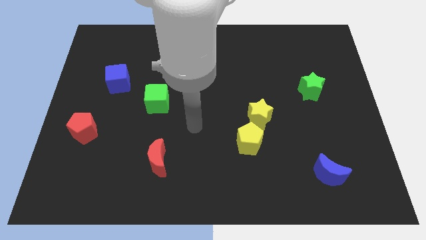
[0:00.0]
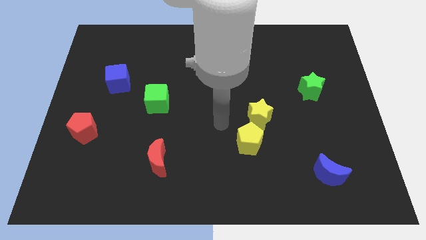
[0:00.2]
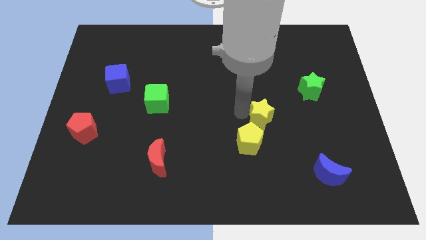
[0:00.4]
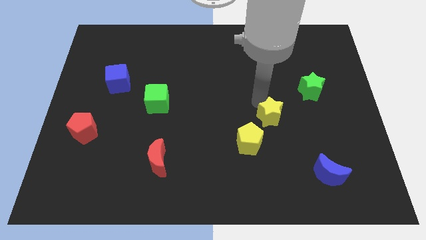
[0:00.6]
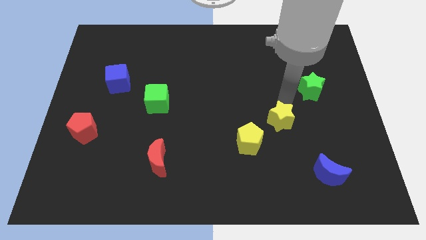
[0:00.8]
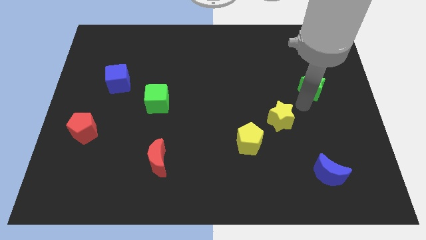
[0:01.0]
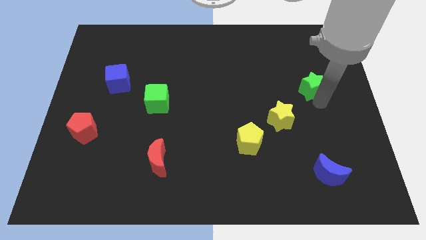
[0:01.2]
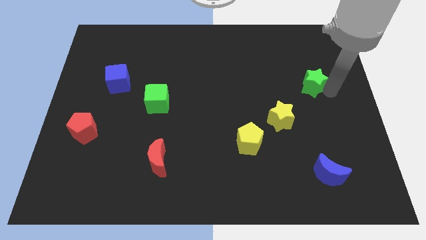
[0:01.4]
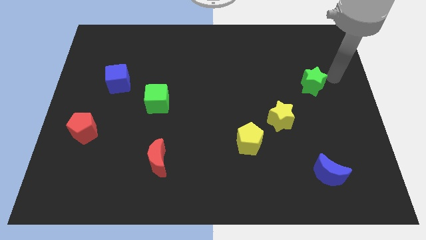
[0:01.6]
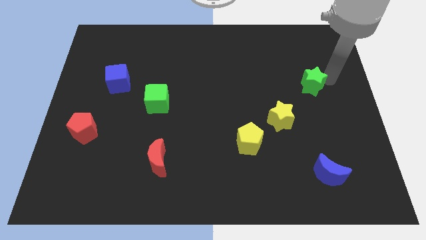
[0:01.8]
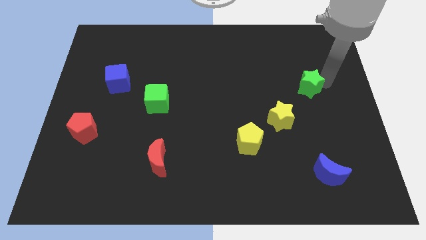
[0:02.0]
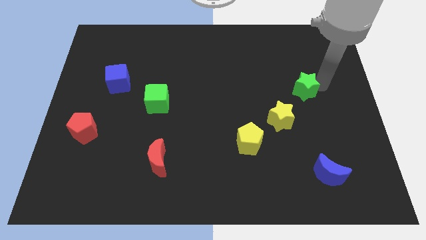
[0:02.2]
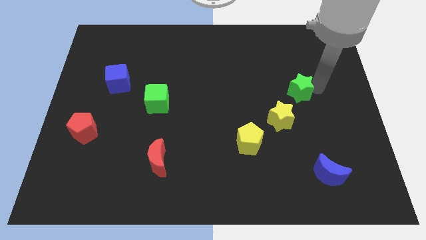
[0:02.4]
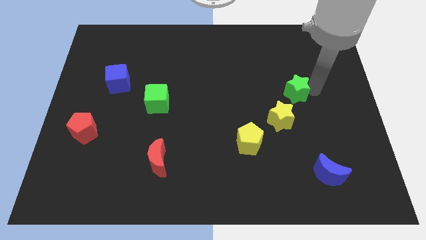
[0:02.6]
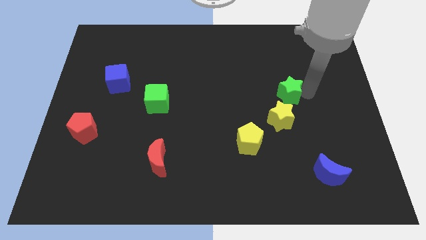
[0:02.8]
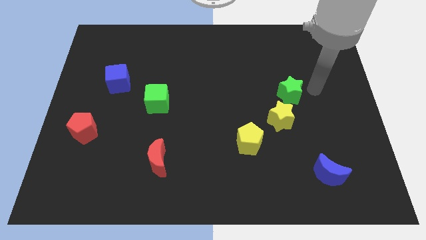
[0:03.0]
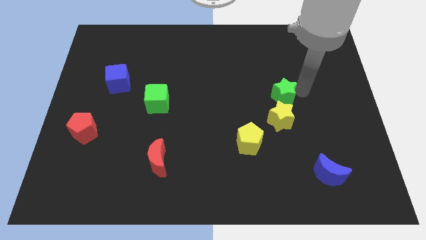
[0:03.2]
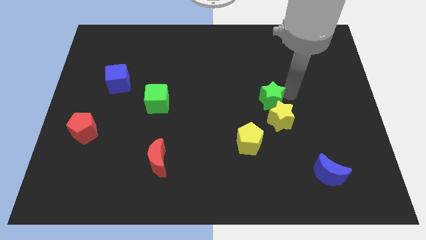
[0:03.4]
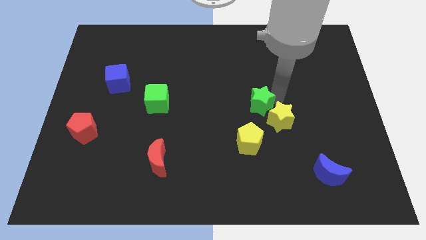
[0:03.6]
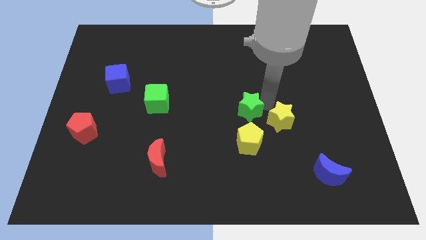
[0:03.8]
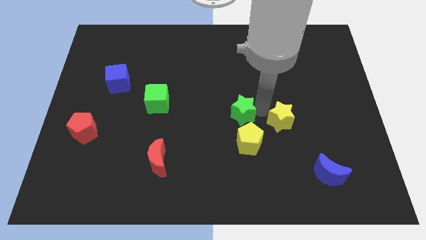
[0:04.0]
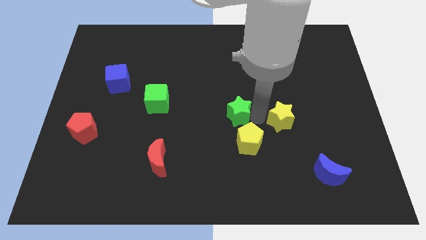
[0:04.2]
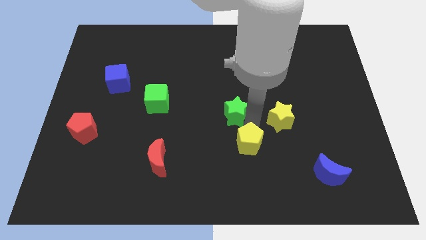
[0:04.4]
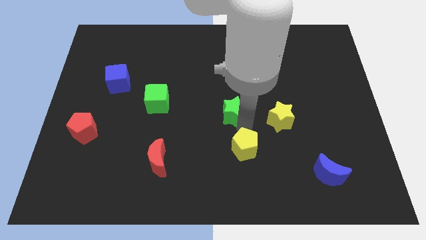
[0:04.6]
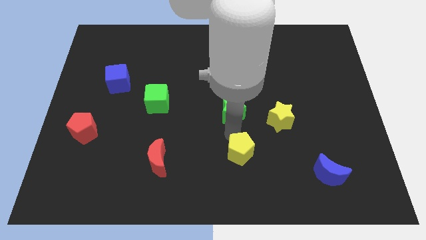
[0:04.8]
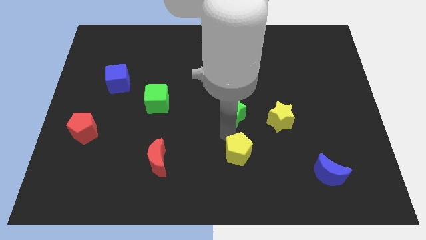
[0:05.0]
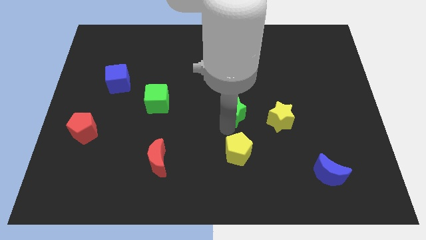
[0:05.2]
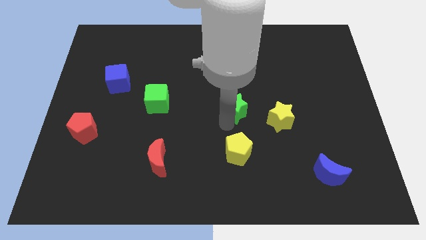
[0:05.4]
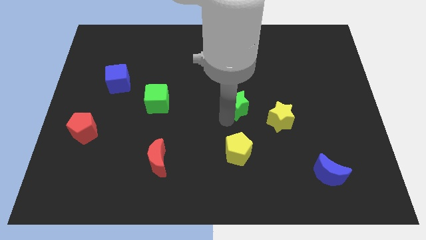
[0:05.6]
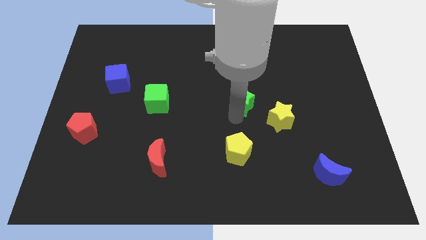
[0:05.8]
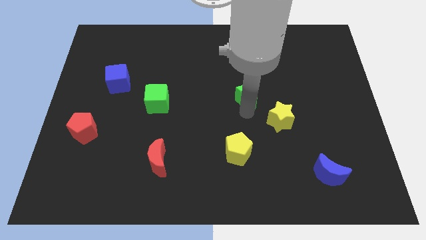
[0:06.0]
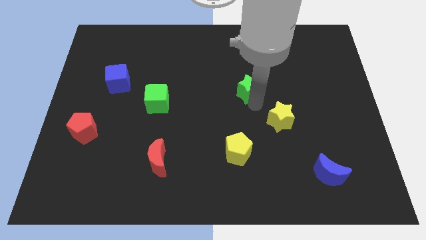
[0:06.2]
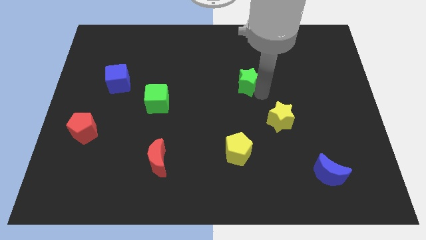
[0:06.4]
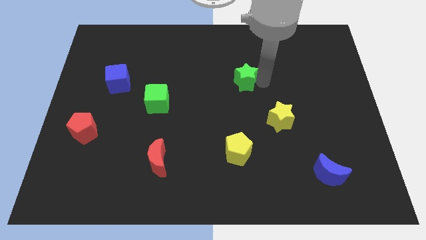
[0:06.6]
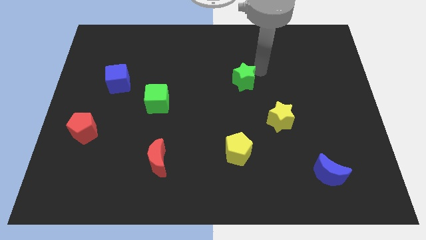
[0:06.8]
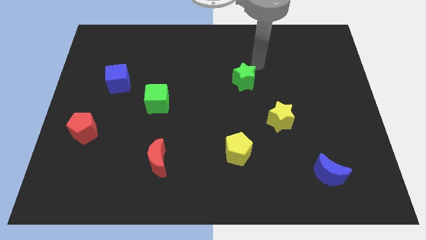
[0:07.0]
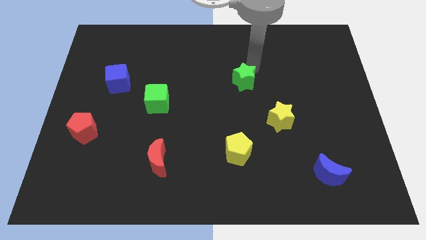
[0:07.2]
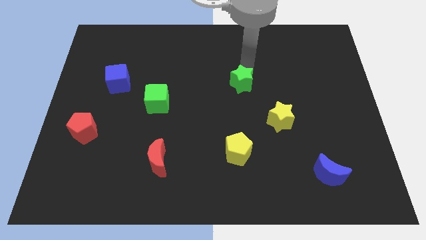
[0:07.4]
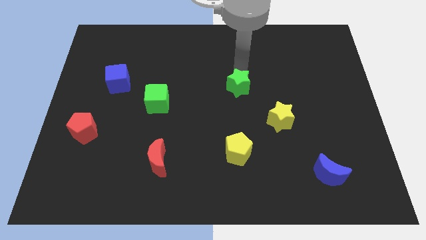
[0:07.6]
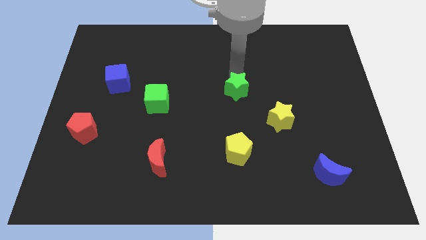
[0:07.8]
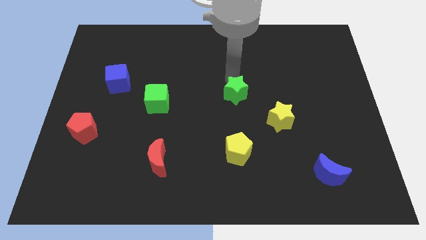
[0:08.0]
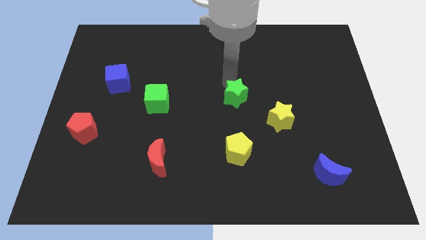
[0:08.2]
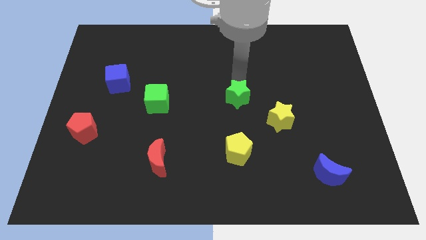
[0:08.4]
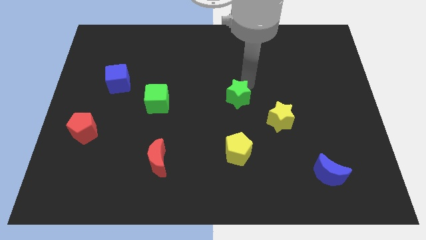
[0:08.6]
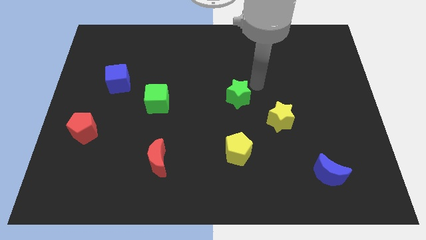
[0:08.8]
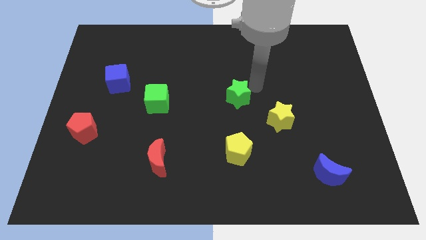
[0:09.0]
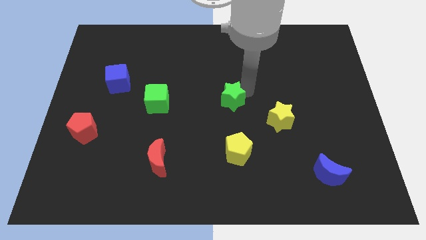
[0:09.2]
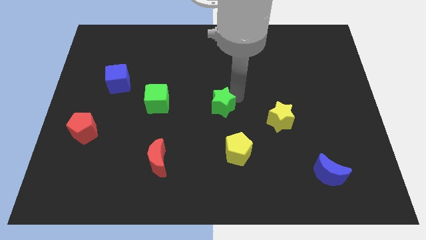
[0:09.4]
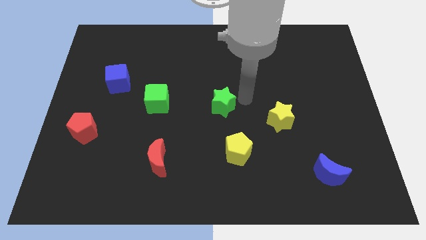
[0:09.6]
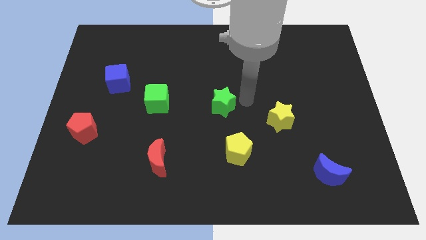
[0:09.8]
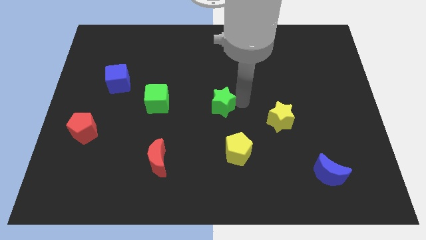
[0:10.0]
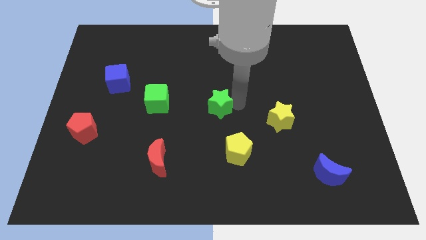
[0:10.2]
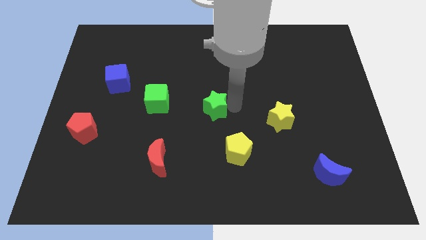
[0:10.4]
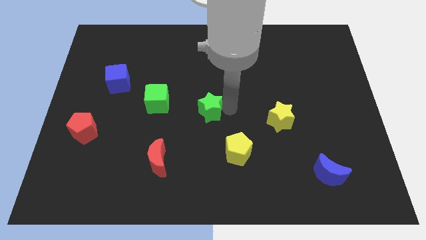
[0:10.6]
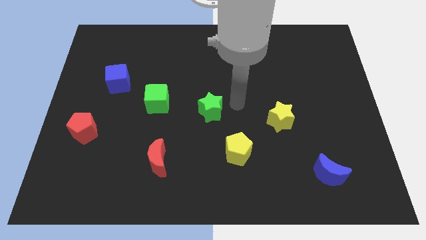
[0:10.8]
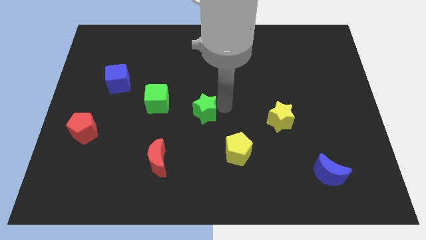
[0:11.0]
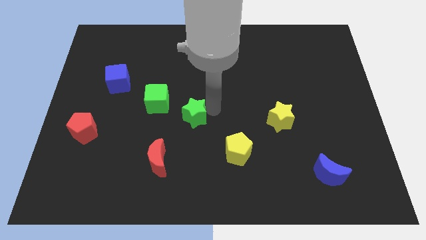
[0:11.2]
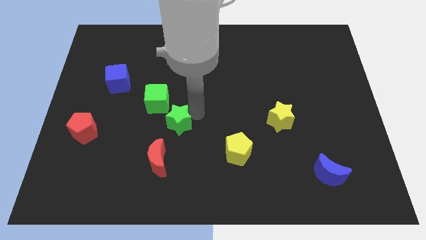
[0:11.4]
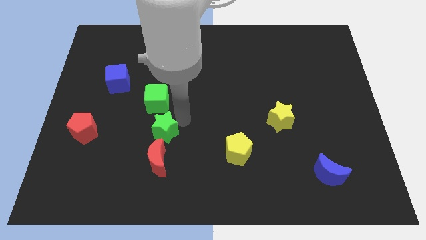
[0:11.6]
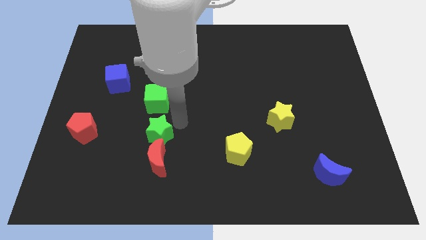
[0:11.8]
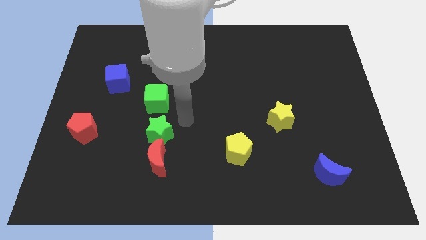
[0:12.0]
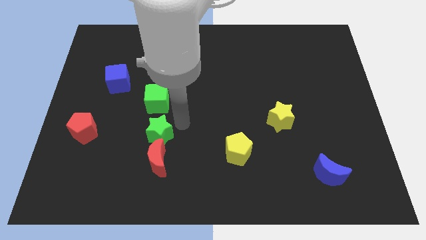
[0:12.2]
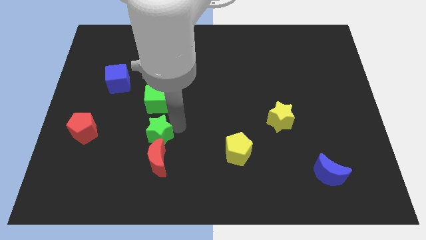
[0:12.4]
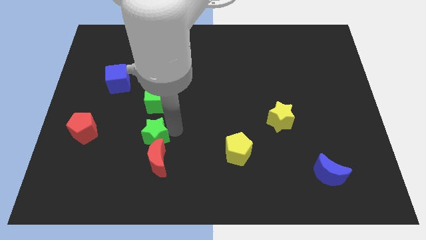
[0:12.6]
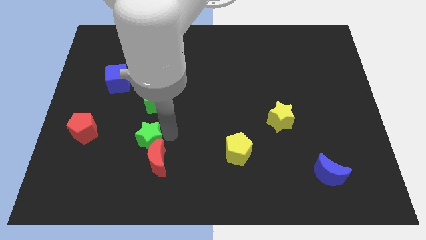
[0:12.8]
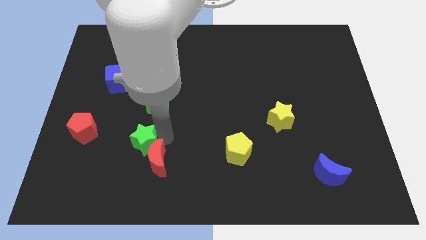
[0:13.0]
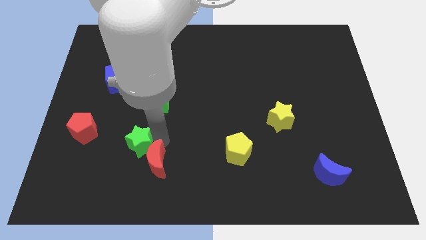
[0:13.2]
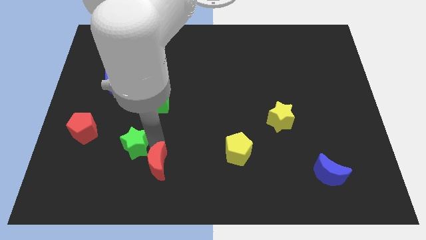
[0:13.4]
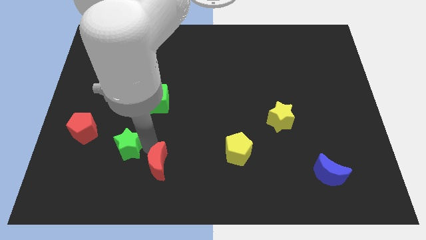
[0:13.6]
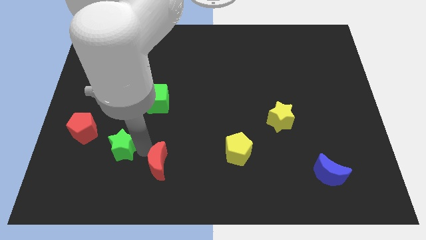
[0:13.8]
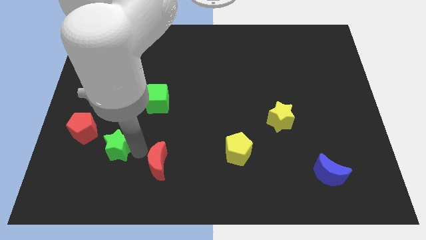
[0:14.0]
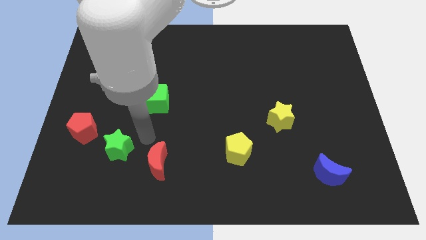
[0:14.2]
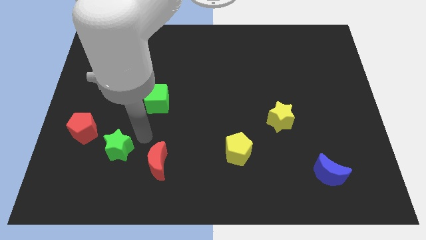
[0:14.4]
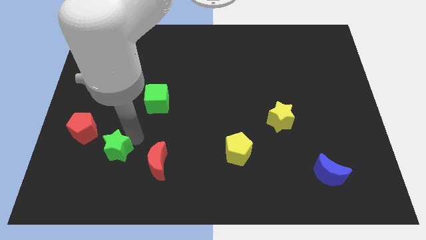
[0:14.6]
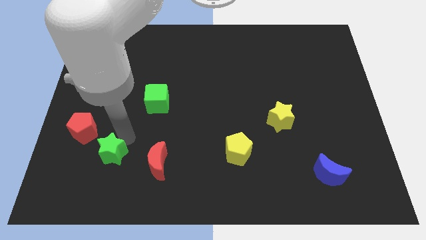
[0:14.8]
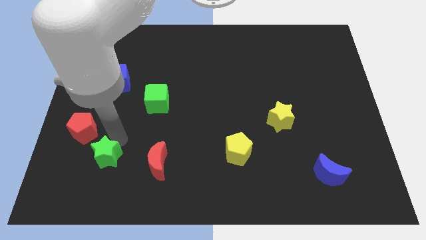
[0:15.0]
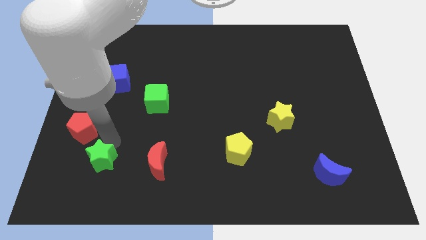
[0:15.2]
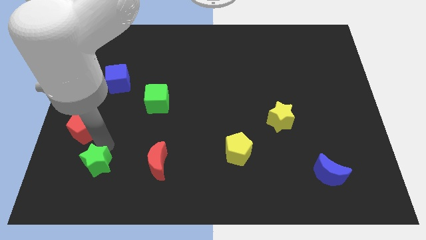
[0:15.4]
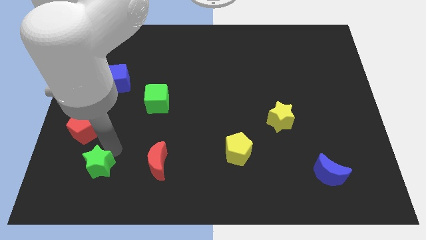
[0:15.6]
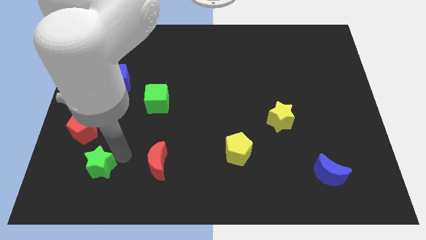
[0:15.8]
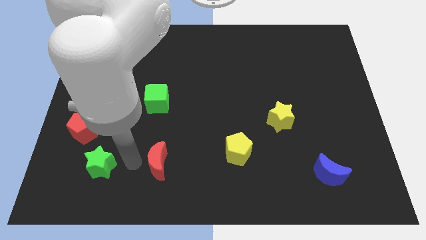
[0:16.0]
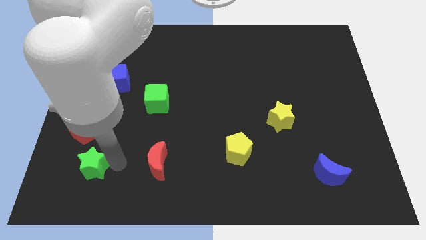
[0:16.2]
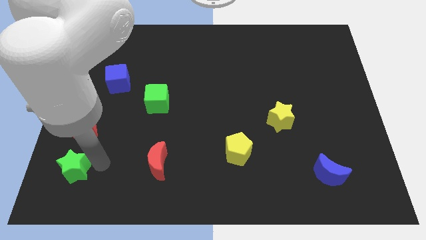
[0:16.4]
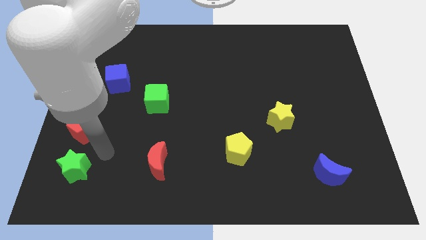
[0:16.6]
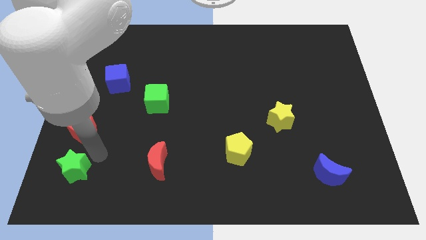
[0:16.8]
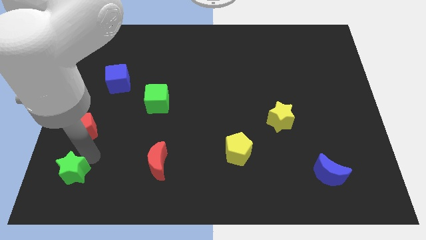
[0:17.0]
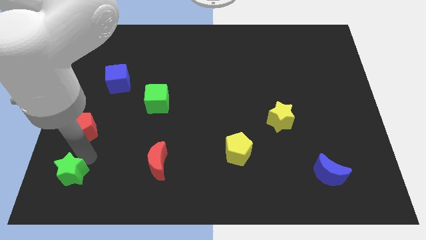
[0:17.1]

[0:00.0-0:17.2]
move the green star to the bottom left of the board
